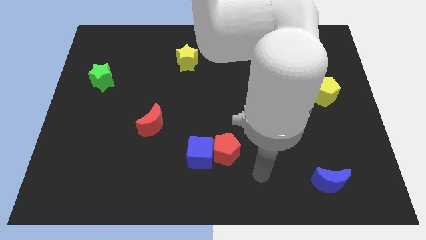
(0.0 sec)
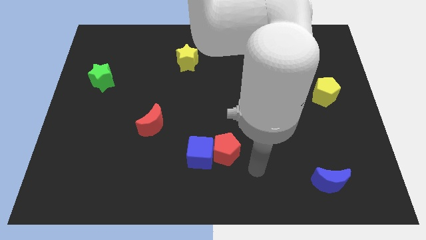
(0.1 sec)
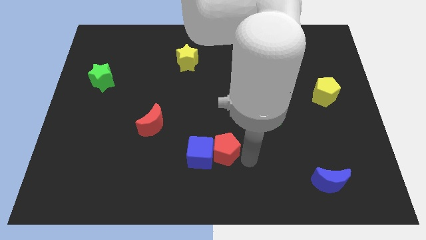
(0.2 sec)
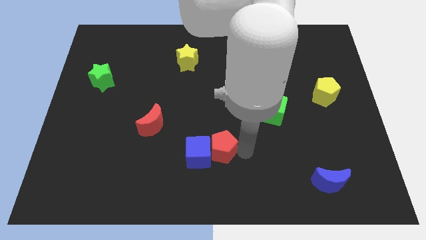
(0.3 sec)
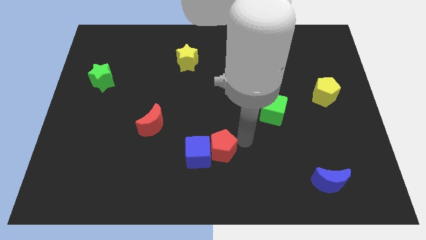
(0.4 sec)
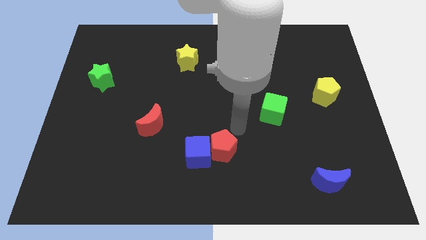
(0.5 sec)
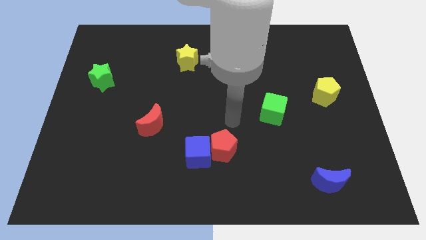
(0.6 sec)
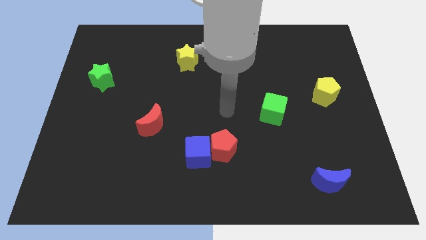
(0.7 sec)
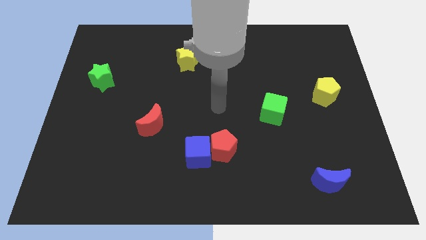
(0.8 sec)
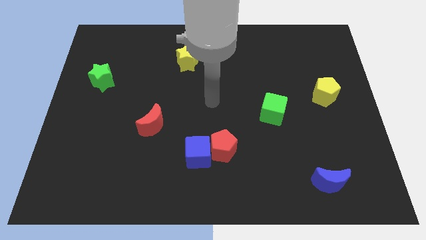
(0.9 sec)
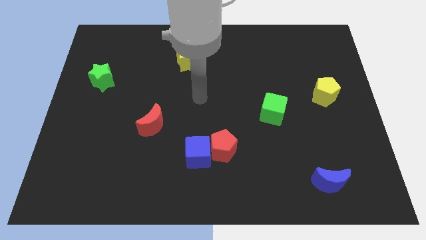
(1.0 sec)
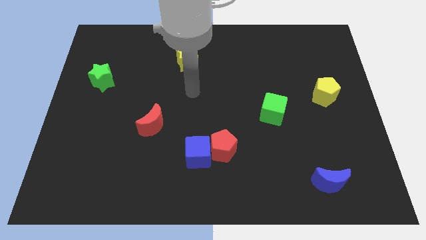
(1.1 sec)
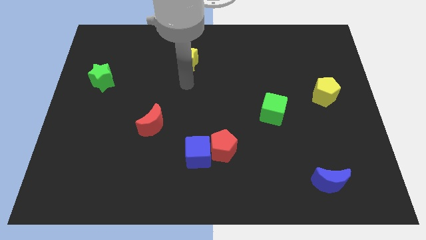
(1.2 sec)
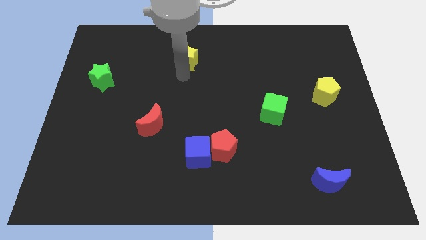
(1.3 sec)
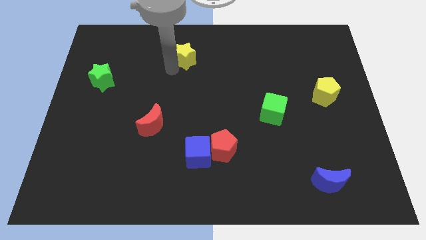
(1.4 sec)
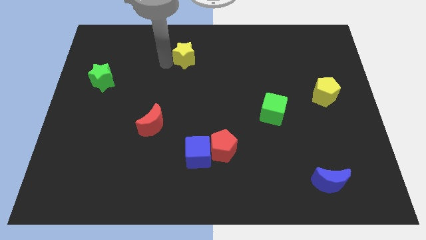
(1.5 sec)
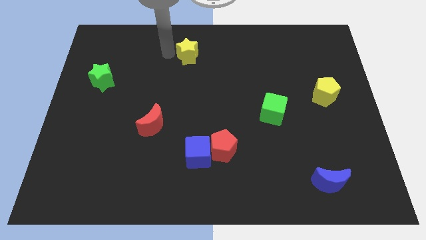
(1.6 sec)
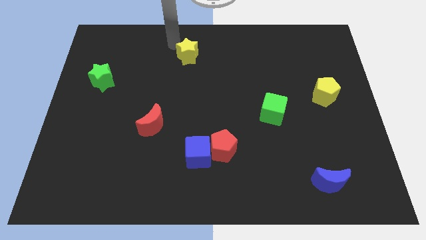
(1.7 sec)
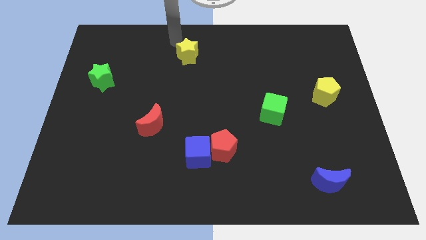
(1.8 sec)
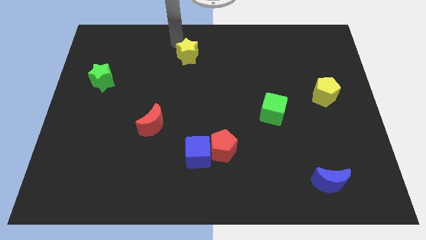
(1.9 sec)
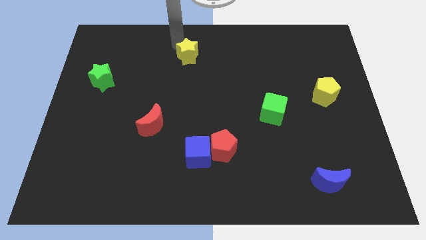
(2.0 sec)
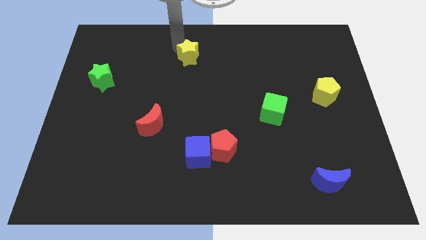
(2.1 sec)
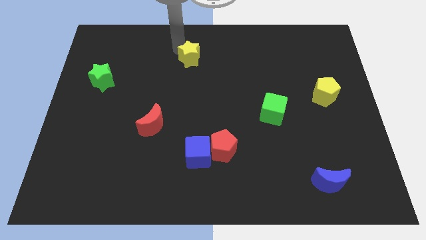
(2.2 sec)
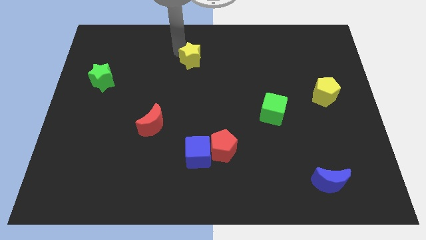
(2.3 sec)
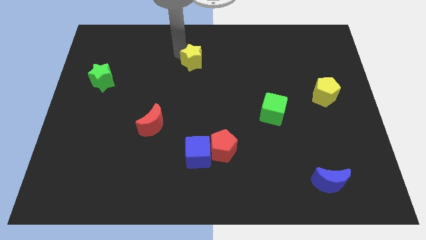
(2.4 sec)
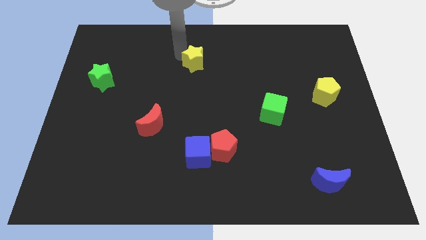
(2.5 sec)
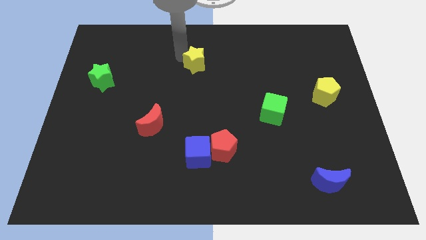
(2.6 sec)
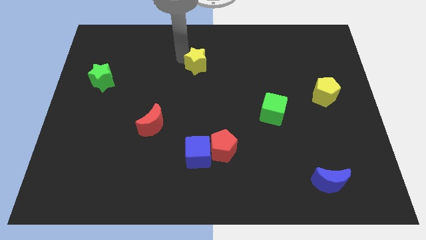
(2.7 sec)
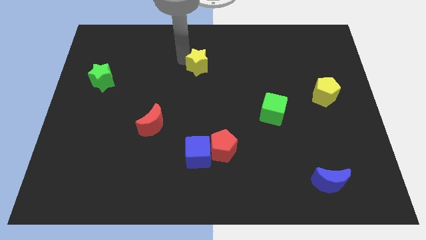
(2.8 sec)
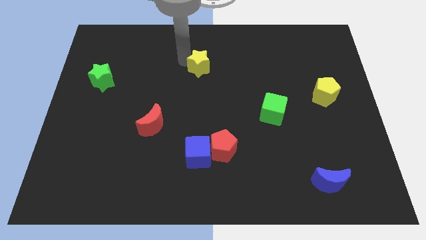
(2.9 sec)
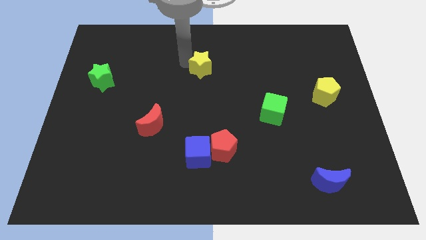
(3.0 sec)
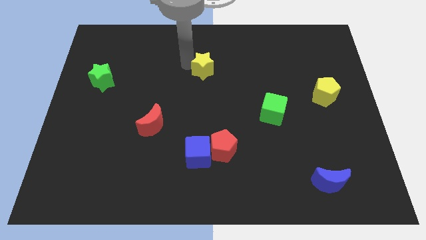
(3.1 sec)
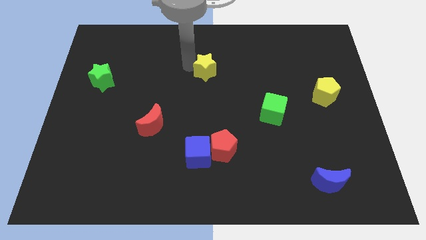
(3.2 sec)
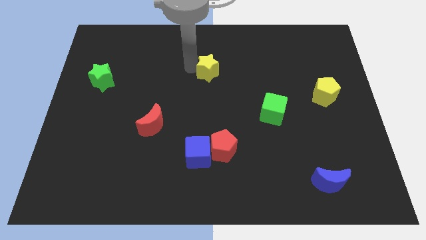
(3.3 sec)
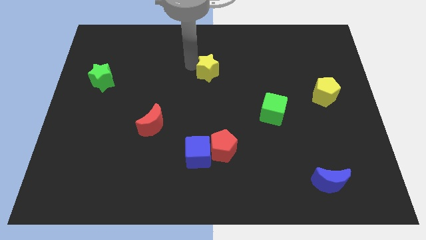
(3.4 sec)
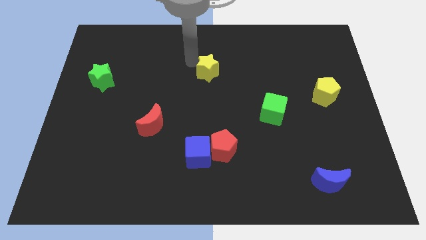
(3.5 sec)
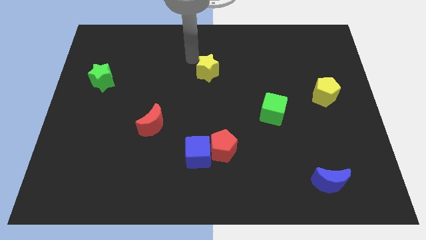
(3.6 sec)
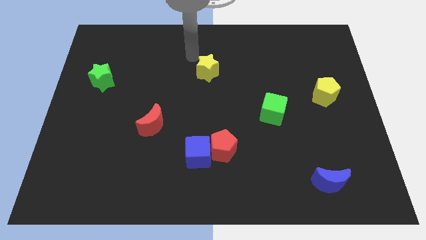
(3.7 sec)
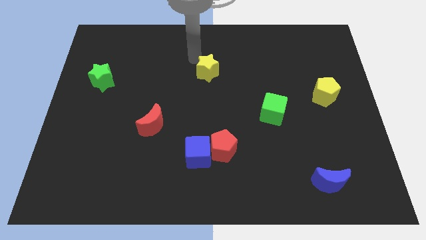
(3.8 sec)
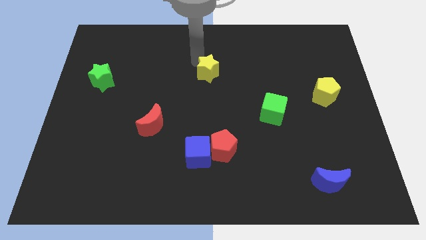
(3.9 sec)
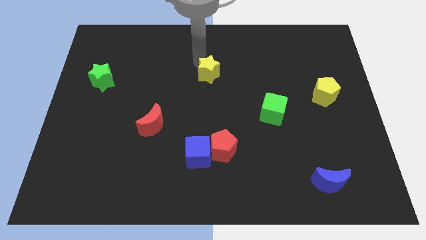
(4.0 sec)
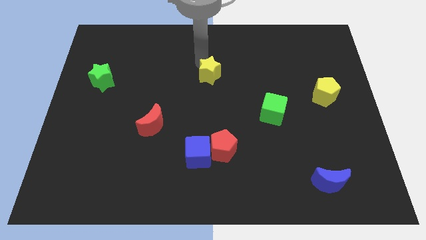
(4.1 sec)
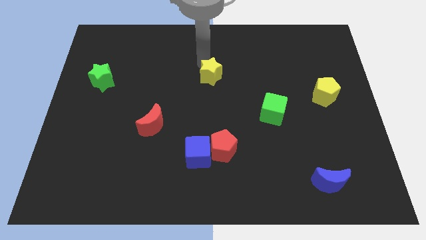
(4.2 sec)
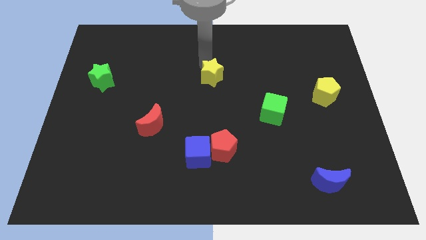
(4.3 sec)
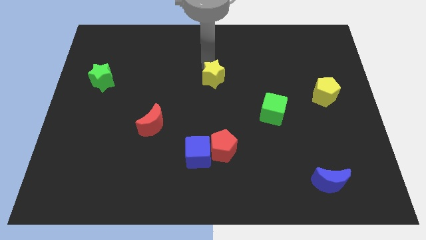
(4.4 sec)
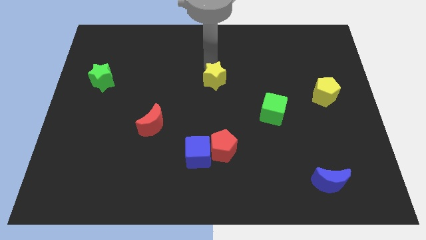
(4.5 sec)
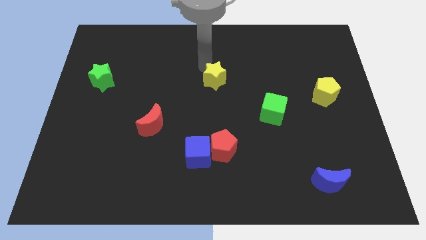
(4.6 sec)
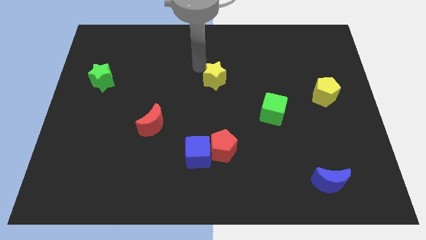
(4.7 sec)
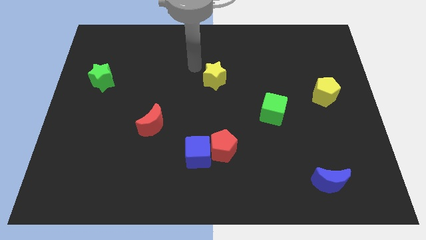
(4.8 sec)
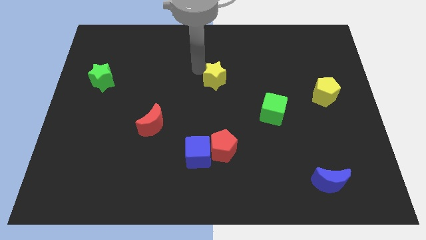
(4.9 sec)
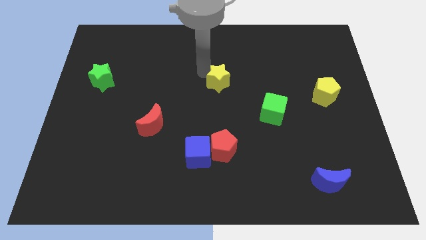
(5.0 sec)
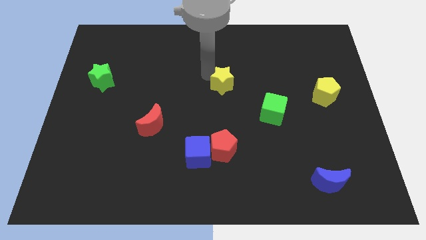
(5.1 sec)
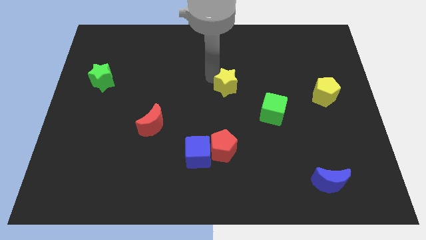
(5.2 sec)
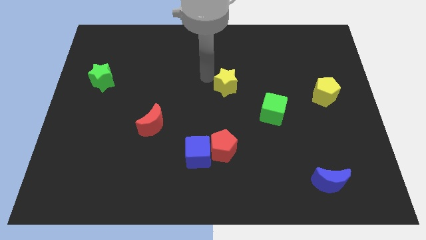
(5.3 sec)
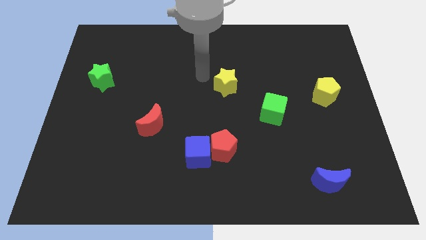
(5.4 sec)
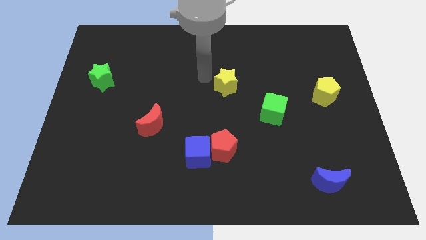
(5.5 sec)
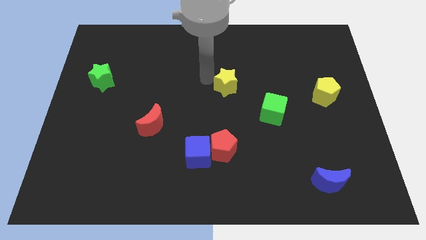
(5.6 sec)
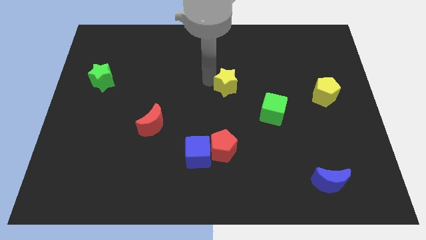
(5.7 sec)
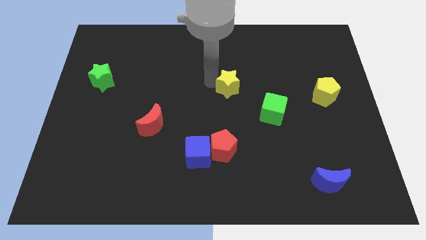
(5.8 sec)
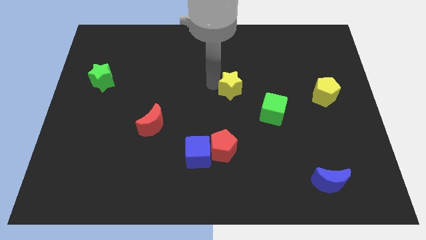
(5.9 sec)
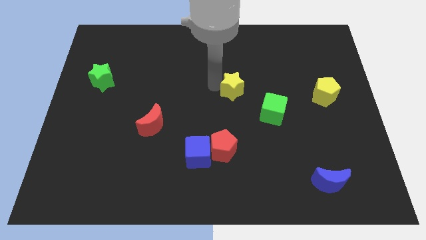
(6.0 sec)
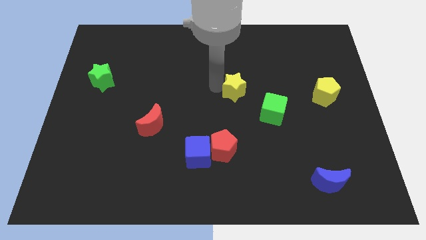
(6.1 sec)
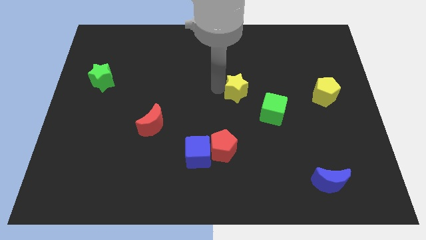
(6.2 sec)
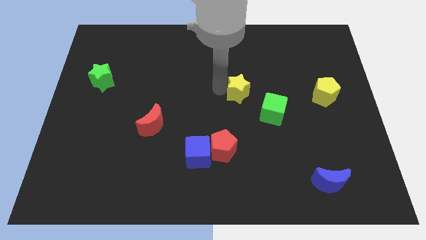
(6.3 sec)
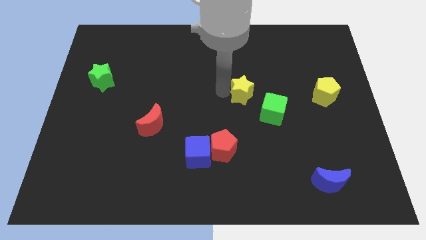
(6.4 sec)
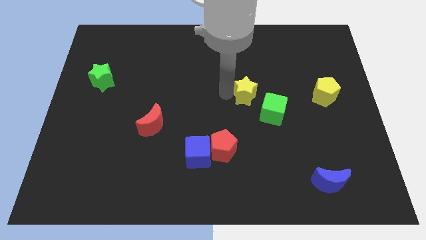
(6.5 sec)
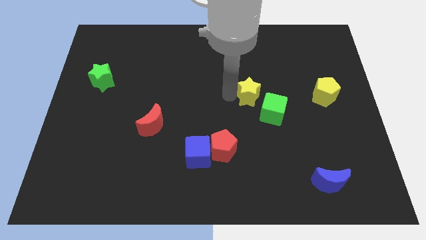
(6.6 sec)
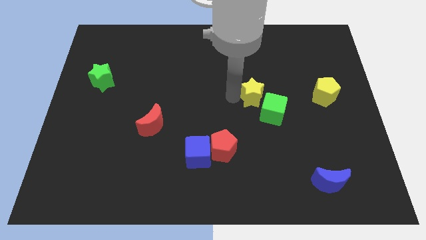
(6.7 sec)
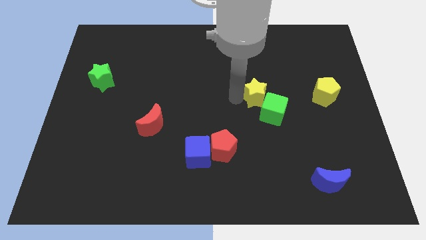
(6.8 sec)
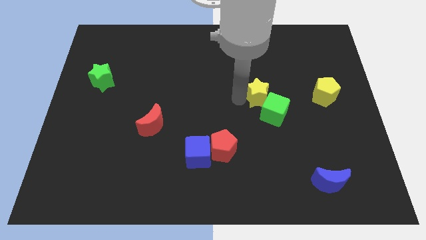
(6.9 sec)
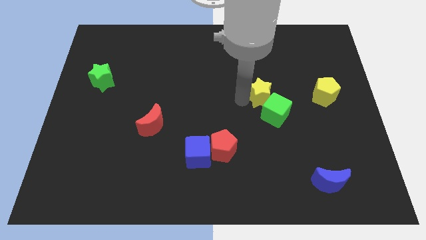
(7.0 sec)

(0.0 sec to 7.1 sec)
slide the yellow star to the left of the yellow pentagon
